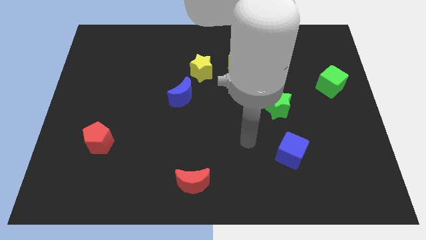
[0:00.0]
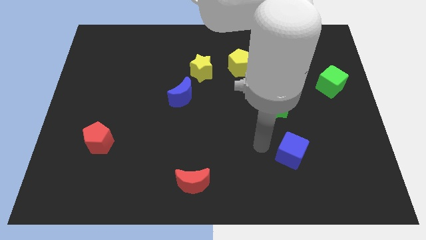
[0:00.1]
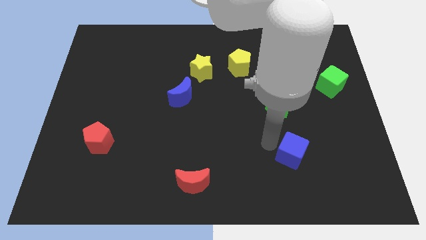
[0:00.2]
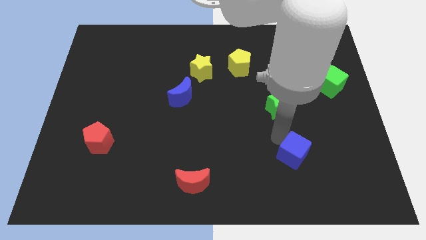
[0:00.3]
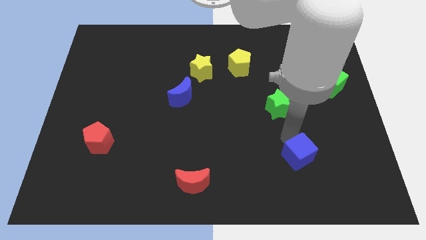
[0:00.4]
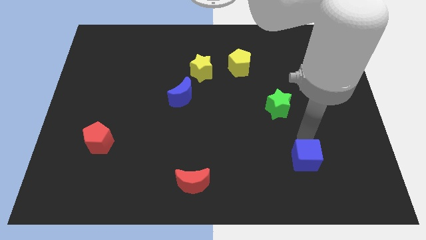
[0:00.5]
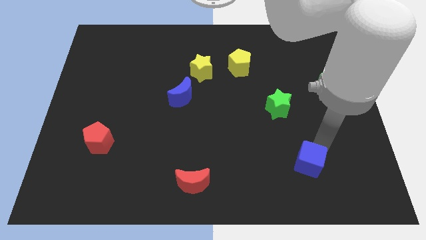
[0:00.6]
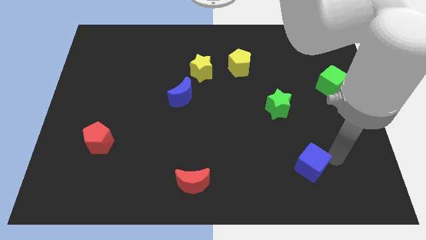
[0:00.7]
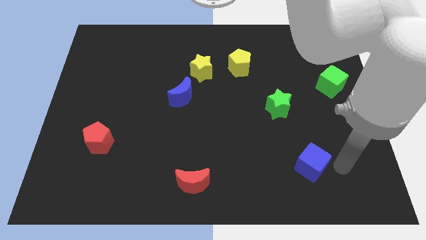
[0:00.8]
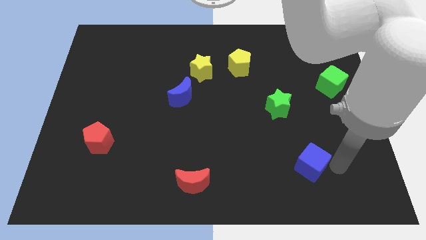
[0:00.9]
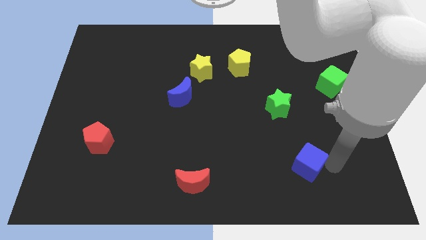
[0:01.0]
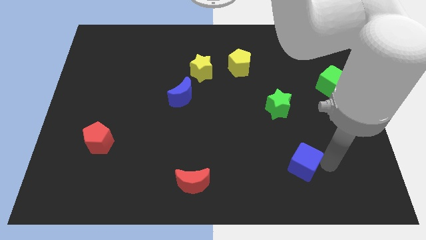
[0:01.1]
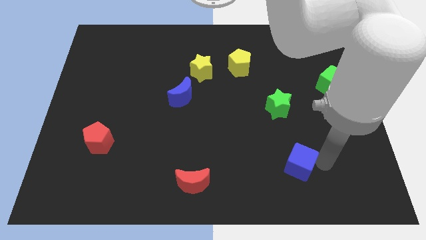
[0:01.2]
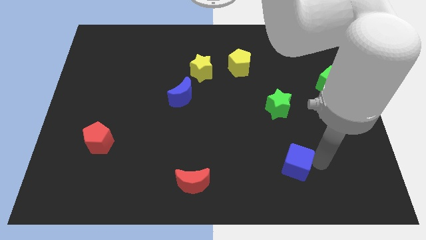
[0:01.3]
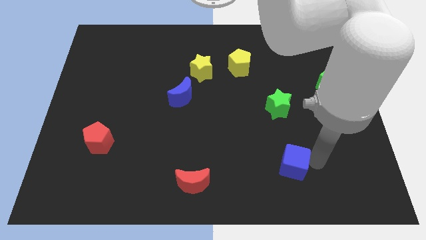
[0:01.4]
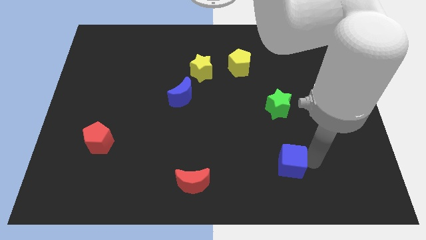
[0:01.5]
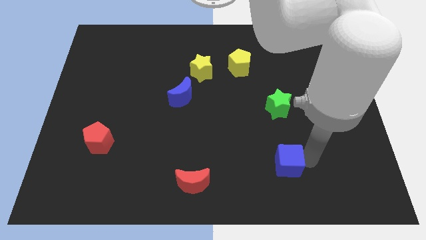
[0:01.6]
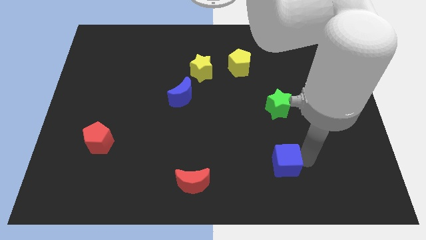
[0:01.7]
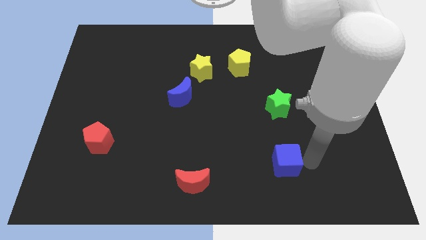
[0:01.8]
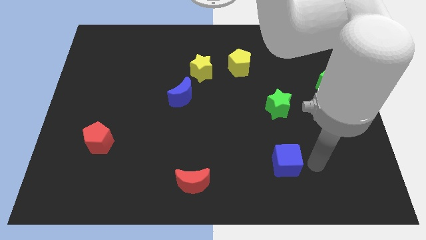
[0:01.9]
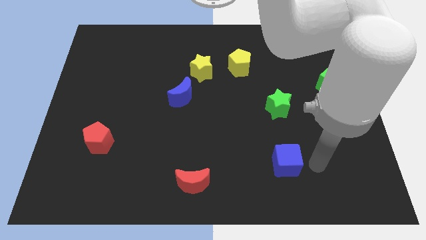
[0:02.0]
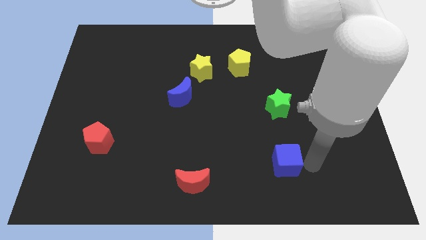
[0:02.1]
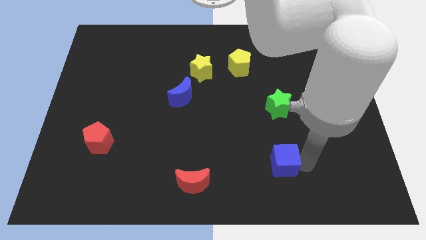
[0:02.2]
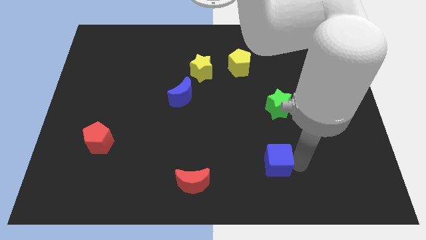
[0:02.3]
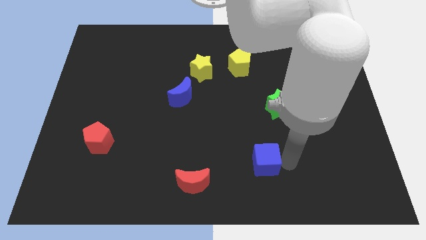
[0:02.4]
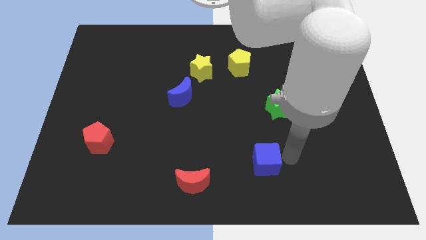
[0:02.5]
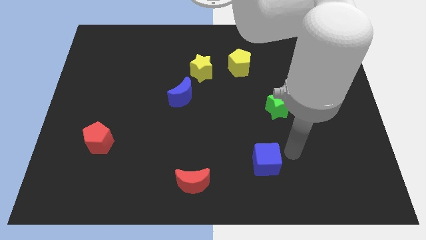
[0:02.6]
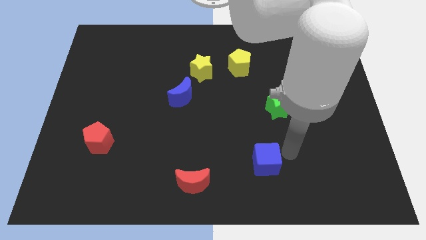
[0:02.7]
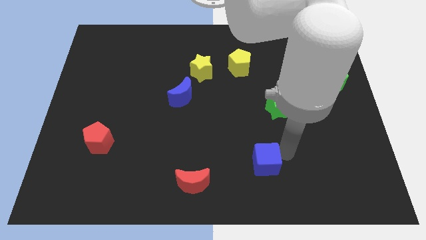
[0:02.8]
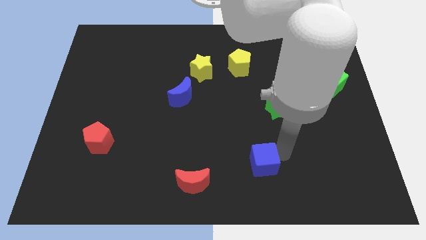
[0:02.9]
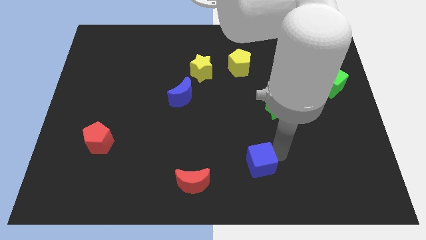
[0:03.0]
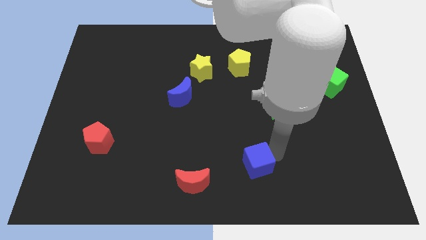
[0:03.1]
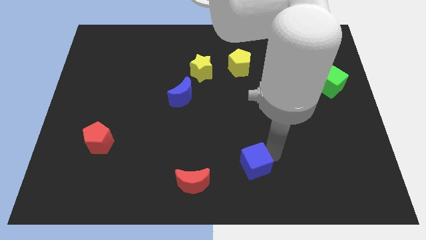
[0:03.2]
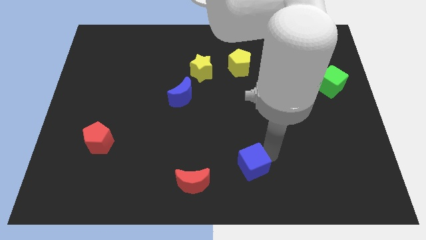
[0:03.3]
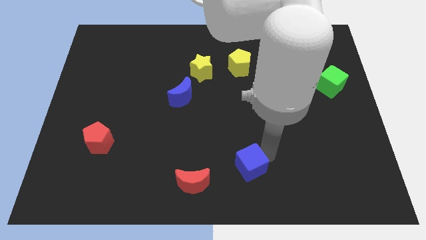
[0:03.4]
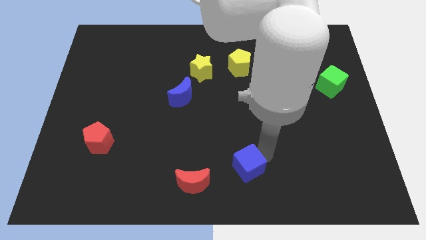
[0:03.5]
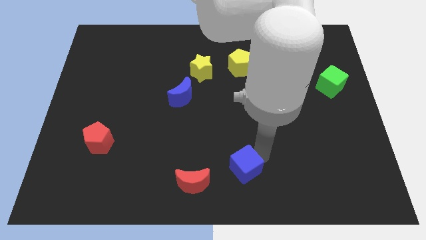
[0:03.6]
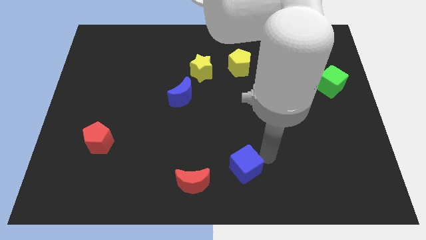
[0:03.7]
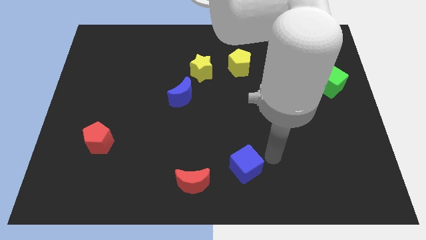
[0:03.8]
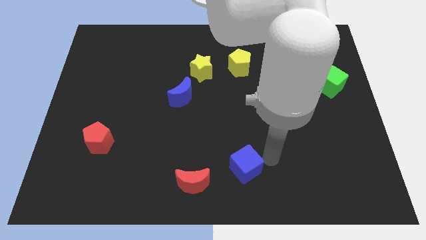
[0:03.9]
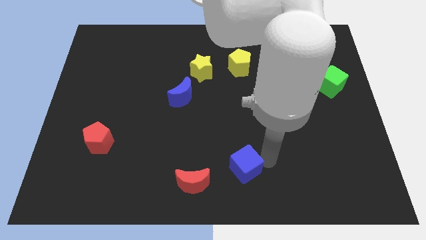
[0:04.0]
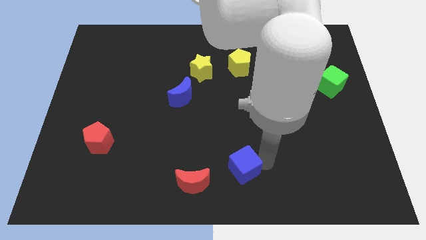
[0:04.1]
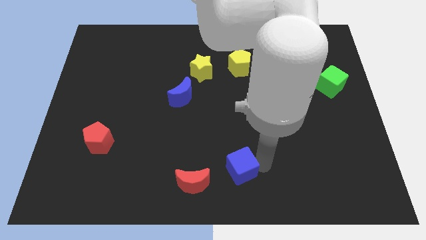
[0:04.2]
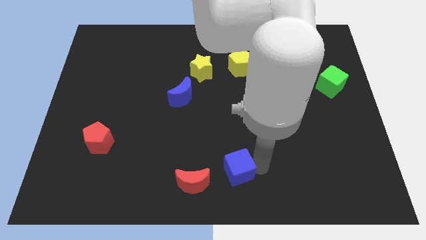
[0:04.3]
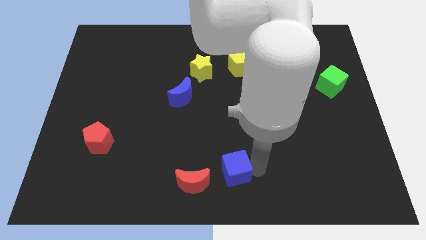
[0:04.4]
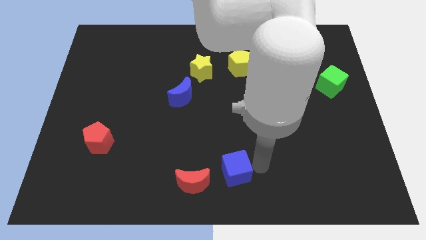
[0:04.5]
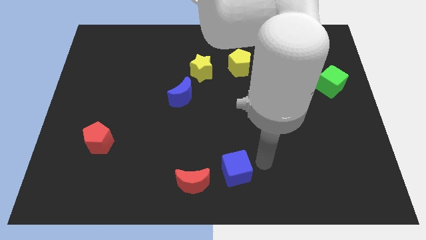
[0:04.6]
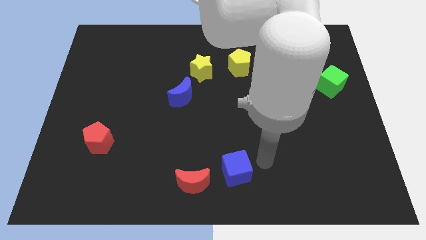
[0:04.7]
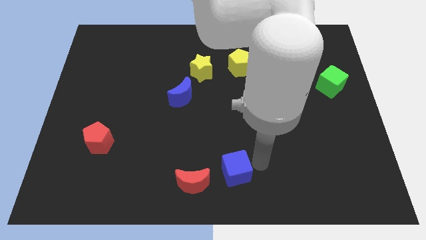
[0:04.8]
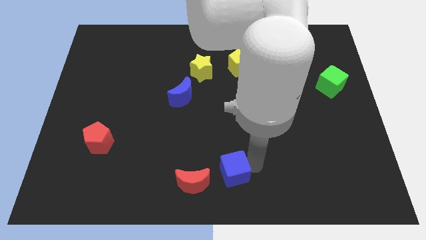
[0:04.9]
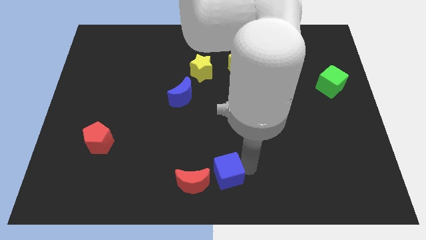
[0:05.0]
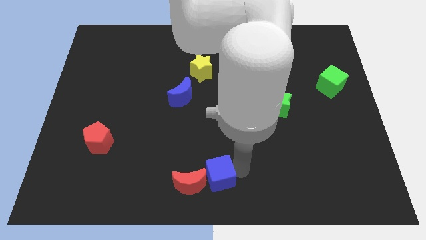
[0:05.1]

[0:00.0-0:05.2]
put the blue cube to the red moon

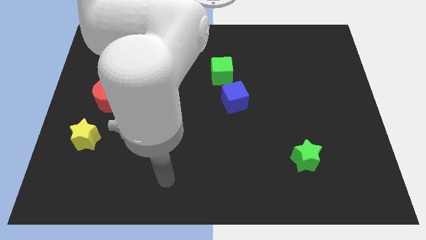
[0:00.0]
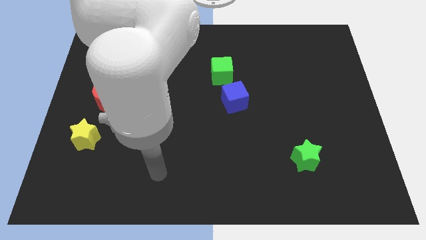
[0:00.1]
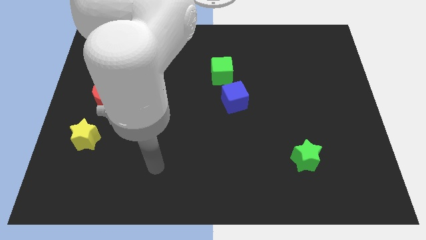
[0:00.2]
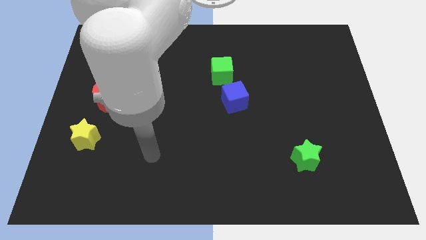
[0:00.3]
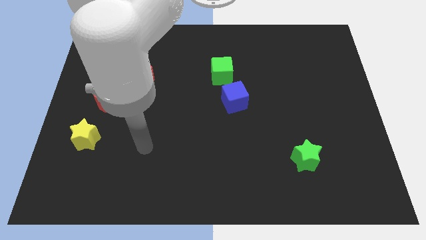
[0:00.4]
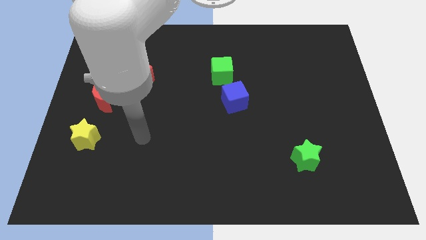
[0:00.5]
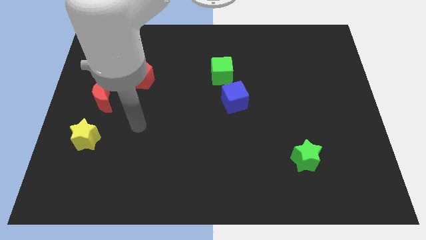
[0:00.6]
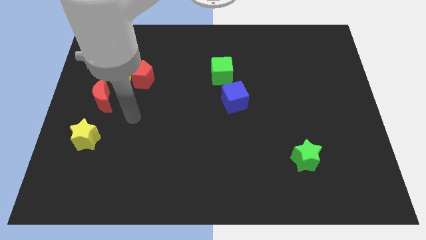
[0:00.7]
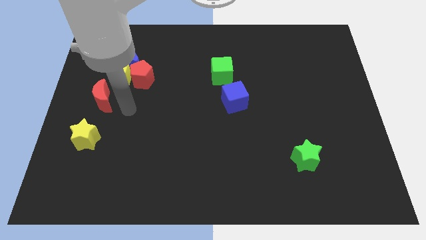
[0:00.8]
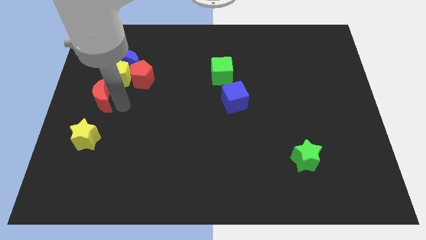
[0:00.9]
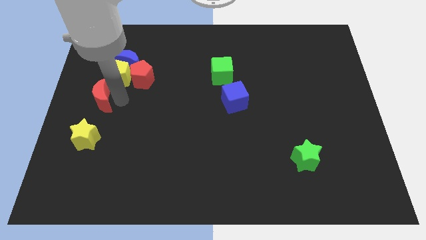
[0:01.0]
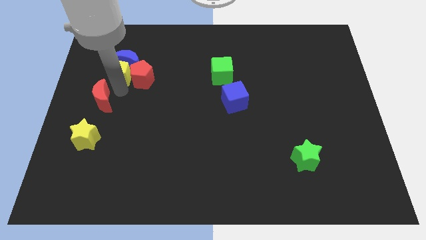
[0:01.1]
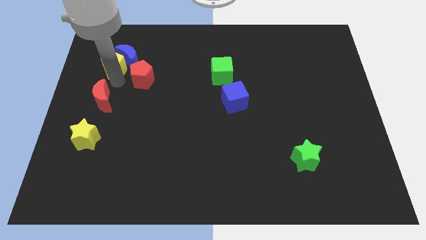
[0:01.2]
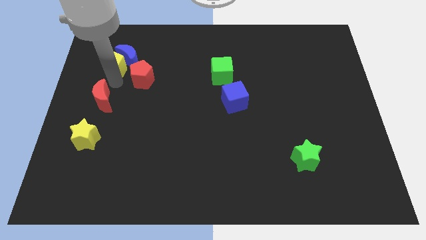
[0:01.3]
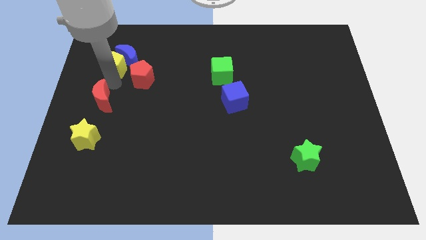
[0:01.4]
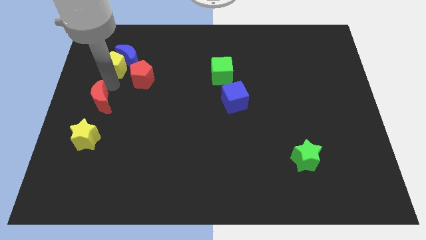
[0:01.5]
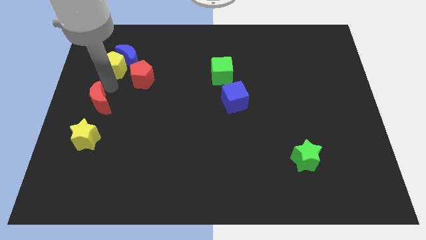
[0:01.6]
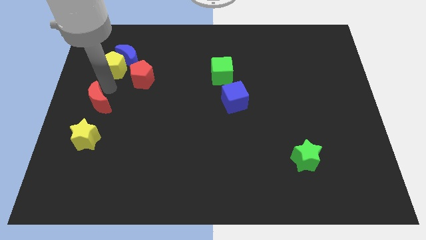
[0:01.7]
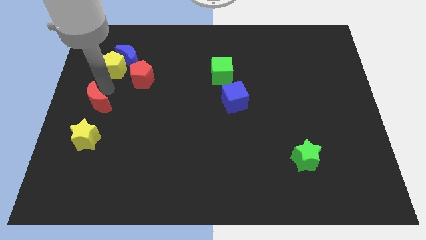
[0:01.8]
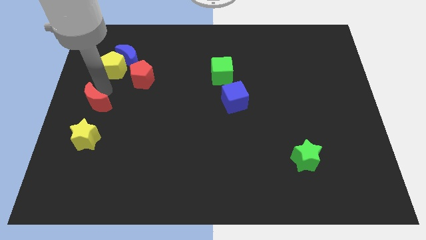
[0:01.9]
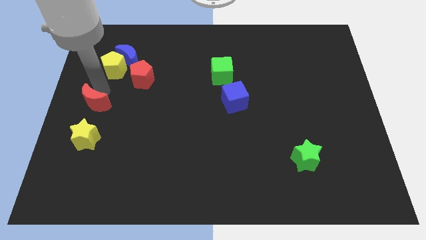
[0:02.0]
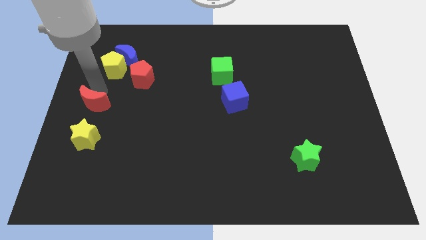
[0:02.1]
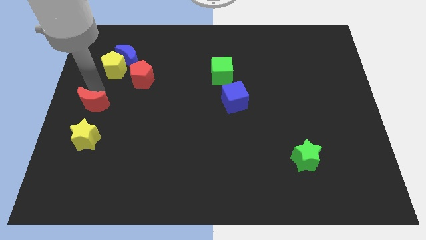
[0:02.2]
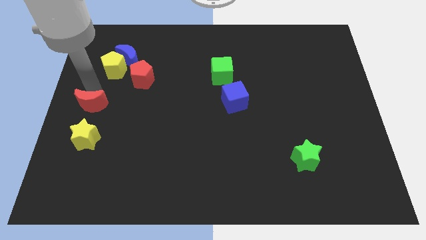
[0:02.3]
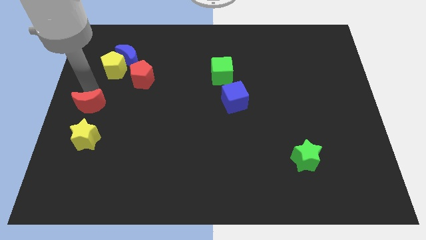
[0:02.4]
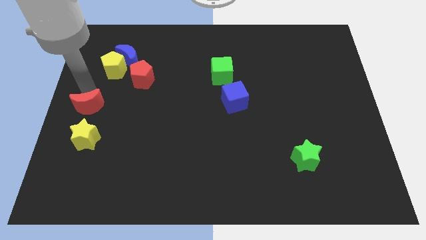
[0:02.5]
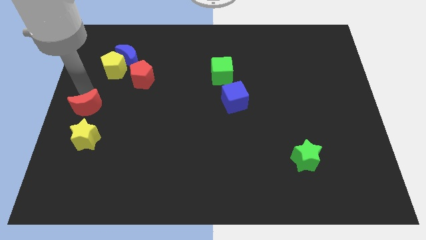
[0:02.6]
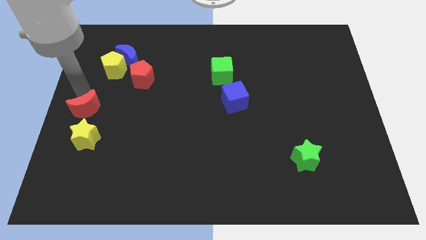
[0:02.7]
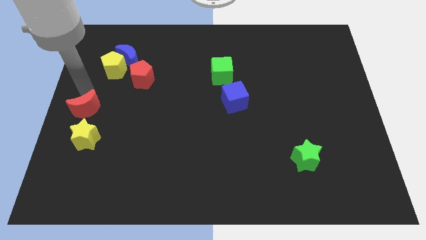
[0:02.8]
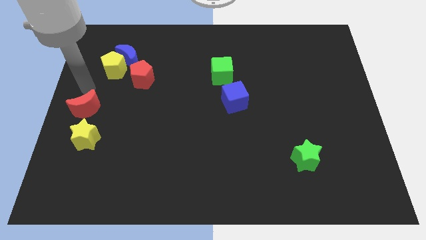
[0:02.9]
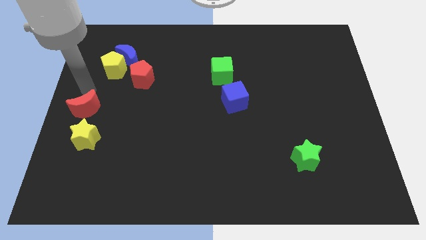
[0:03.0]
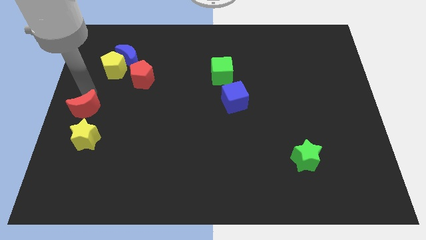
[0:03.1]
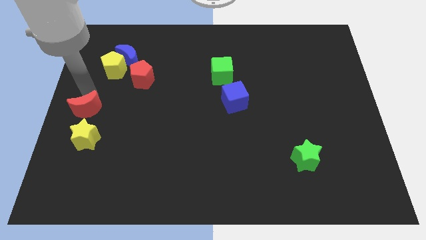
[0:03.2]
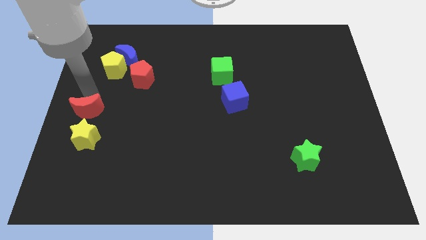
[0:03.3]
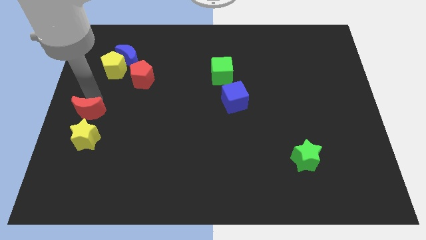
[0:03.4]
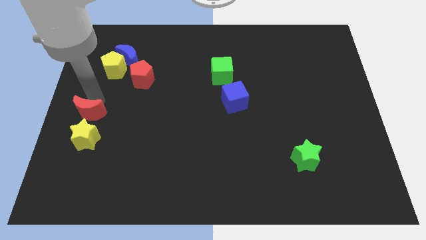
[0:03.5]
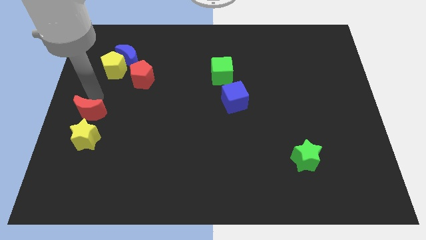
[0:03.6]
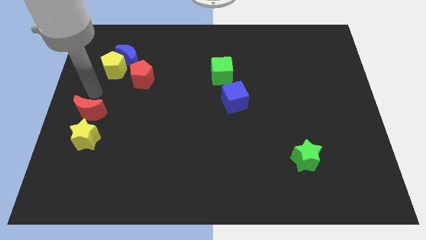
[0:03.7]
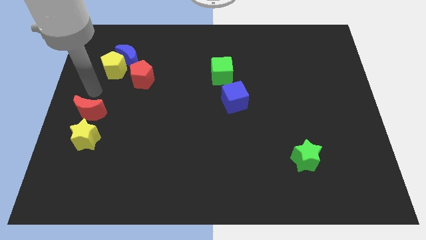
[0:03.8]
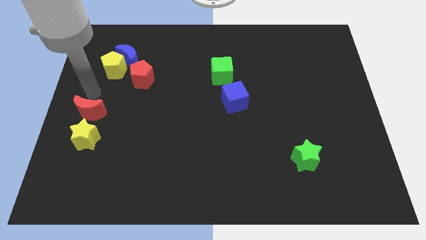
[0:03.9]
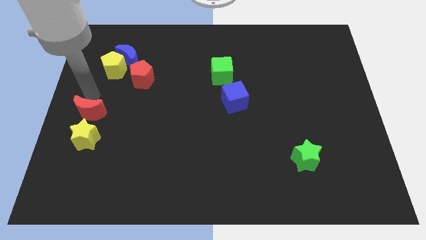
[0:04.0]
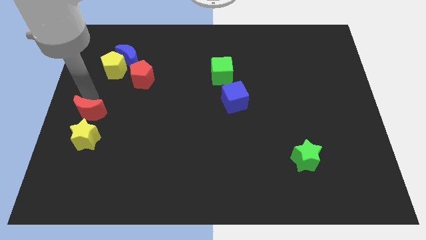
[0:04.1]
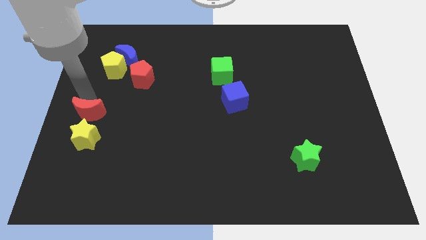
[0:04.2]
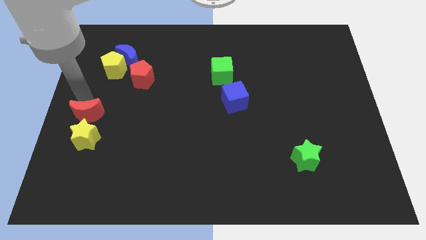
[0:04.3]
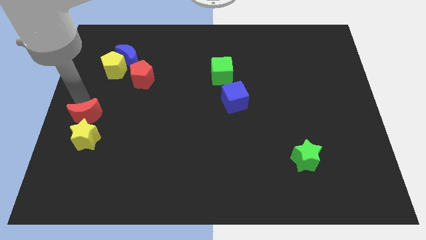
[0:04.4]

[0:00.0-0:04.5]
push the red moon close to the yellow star
